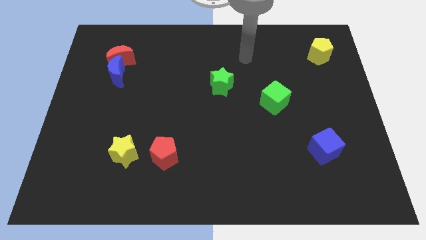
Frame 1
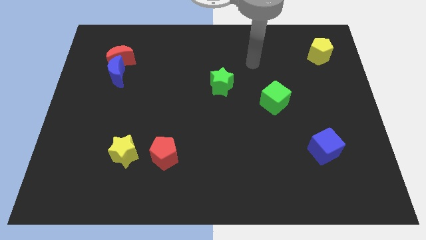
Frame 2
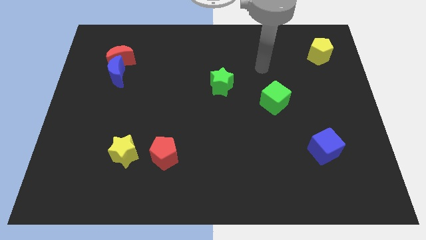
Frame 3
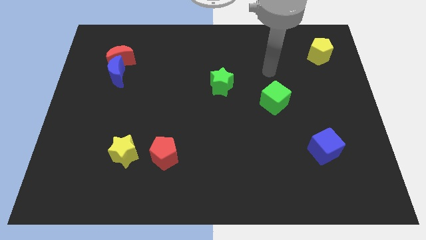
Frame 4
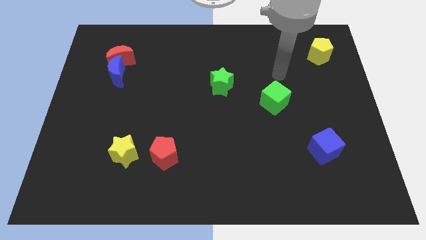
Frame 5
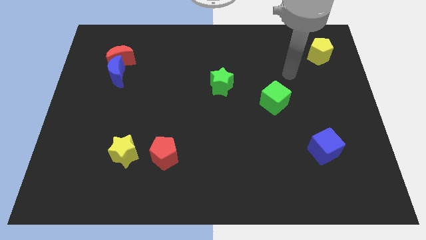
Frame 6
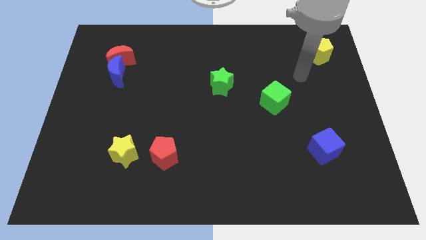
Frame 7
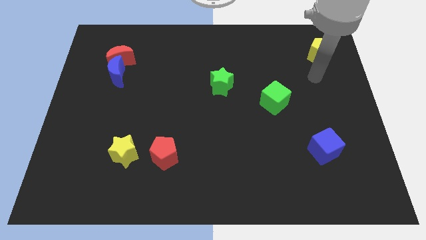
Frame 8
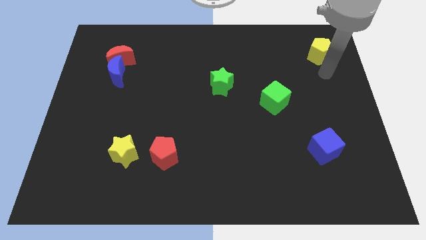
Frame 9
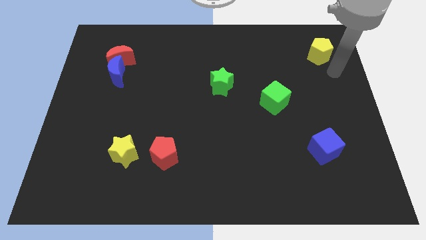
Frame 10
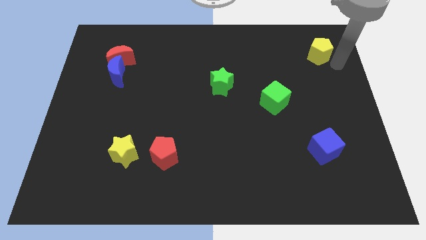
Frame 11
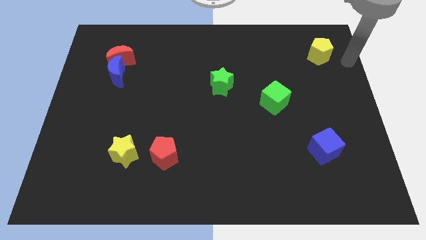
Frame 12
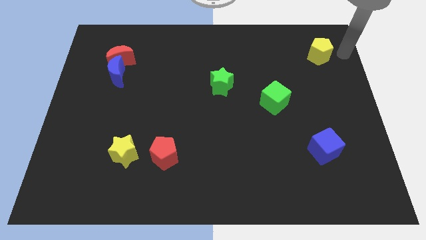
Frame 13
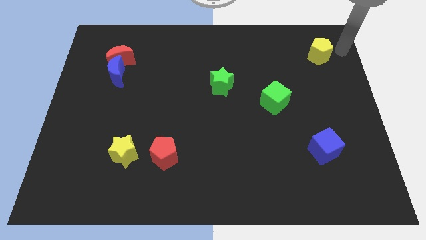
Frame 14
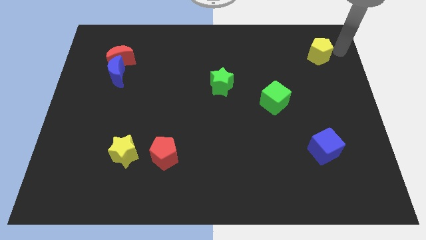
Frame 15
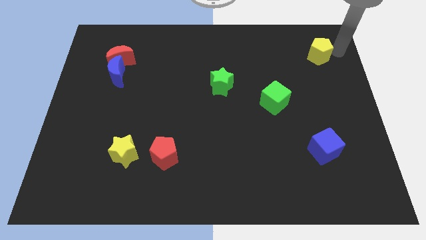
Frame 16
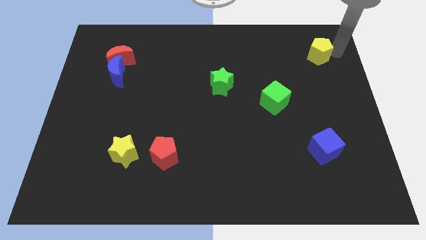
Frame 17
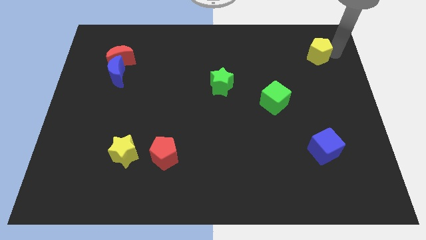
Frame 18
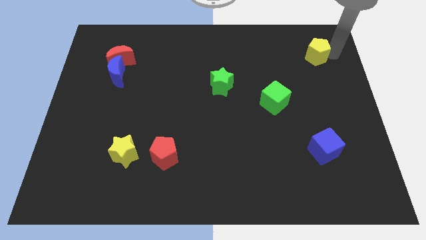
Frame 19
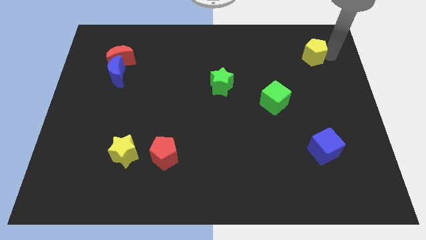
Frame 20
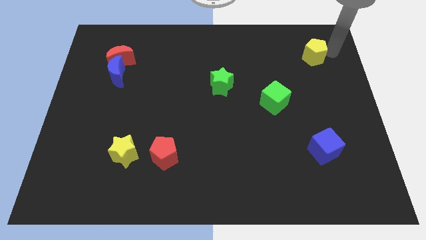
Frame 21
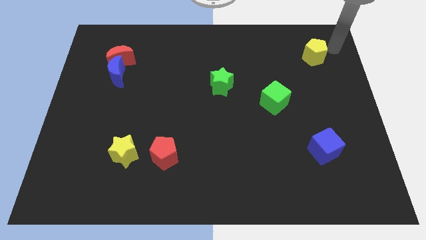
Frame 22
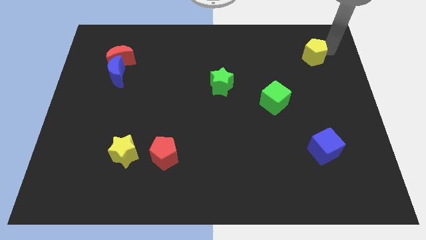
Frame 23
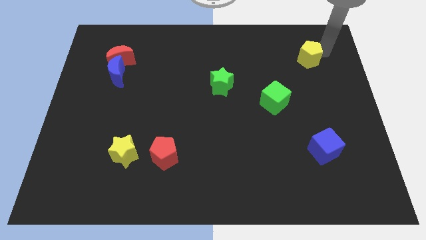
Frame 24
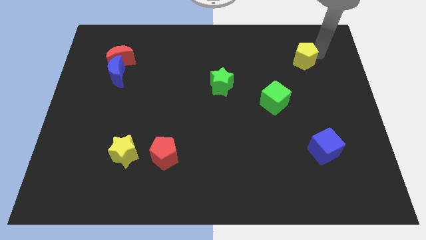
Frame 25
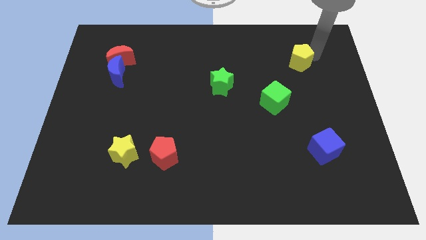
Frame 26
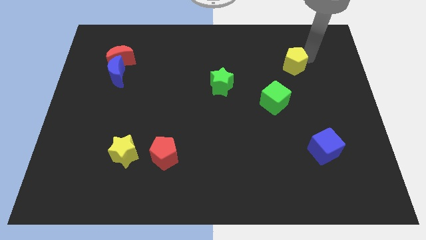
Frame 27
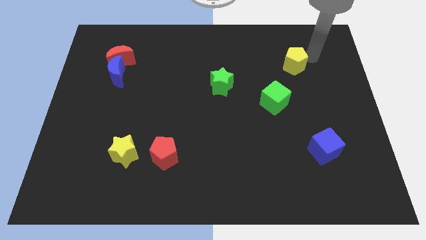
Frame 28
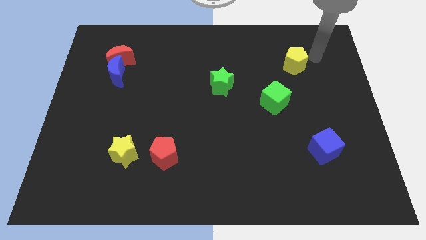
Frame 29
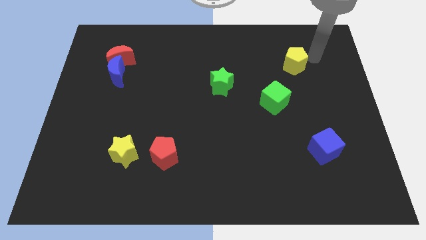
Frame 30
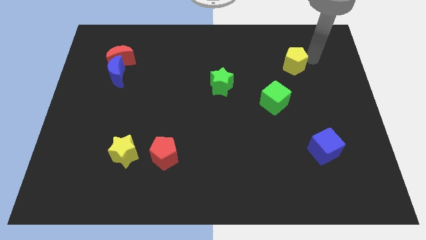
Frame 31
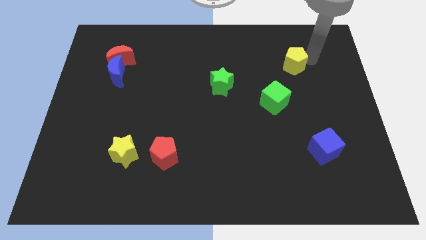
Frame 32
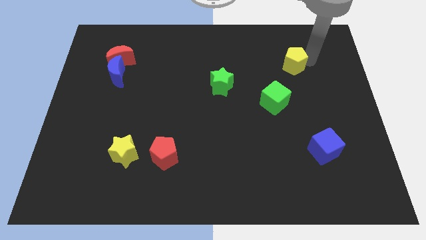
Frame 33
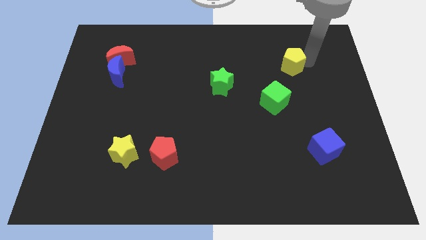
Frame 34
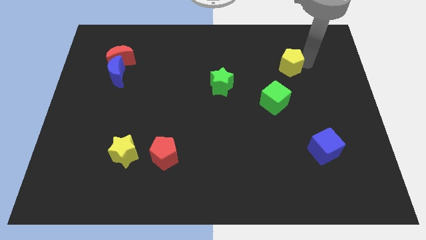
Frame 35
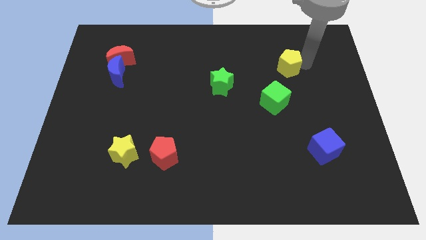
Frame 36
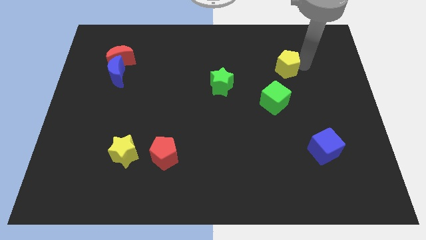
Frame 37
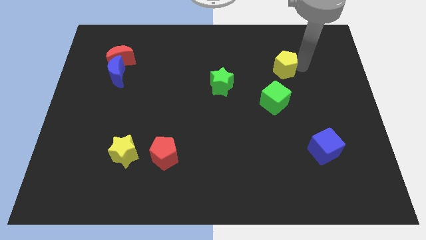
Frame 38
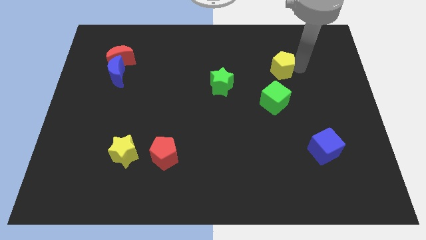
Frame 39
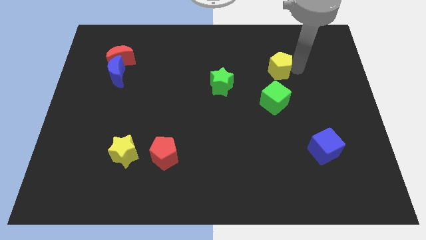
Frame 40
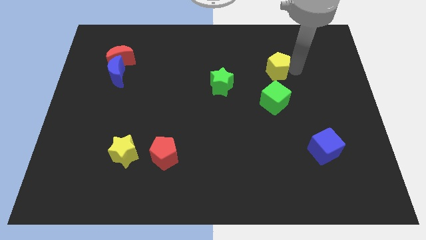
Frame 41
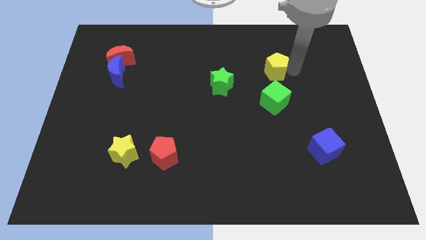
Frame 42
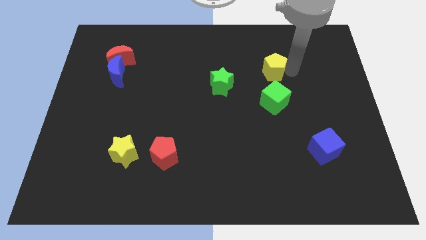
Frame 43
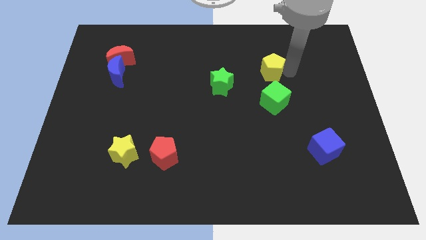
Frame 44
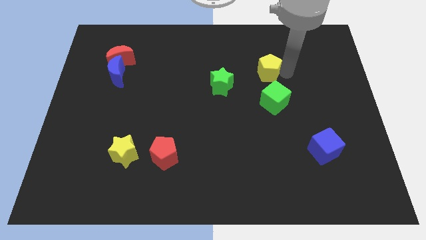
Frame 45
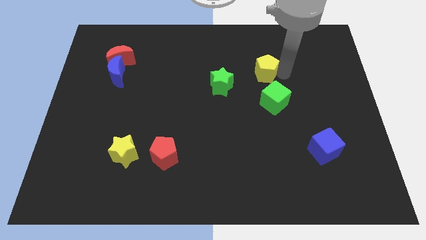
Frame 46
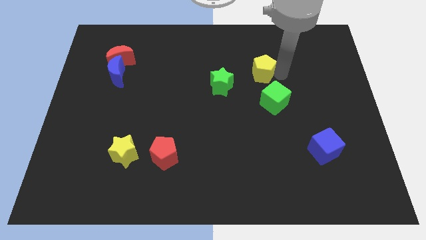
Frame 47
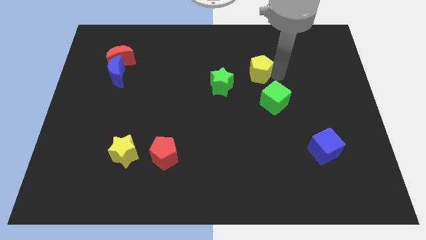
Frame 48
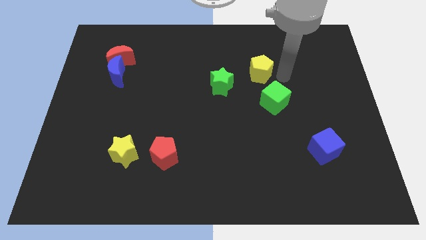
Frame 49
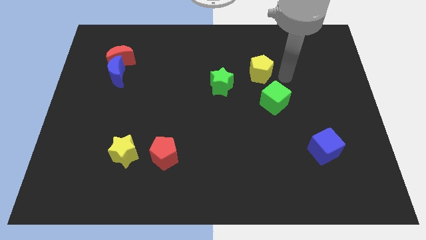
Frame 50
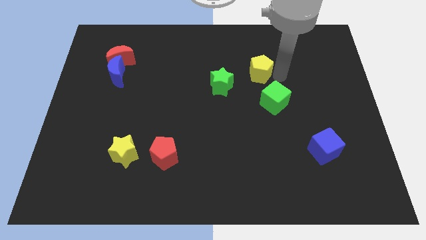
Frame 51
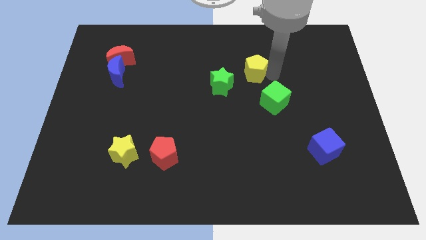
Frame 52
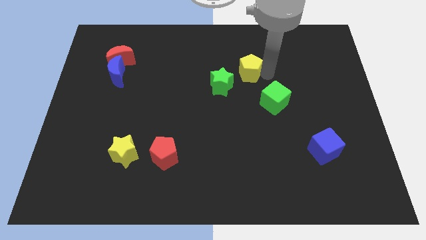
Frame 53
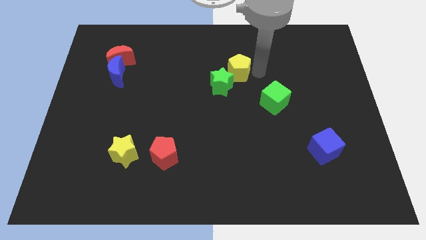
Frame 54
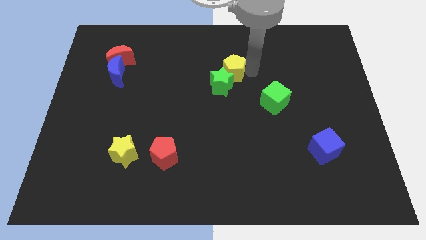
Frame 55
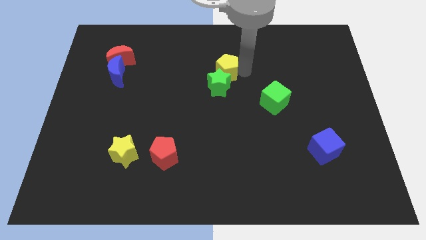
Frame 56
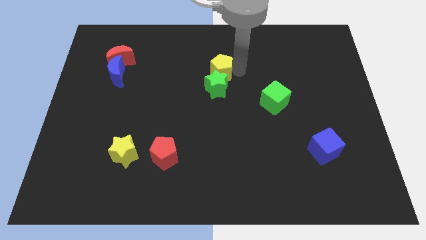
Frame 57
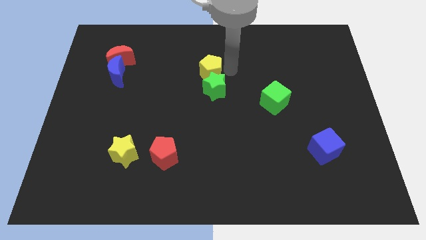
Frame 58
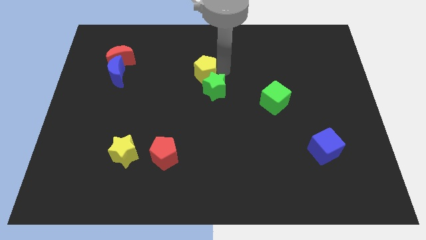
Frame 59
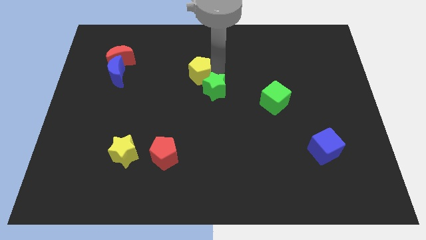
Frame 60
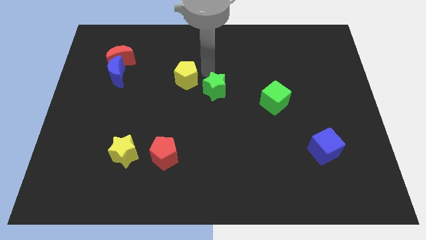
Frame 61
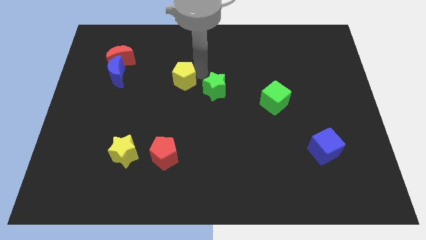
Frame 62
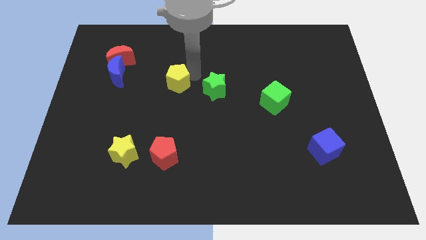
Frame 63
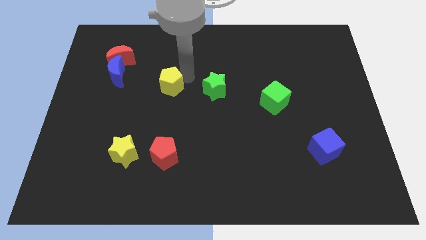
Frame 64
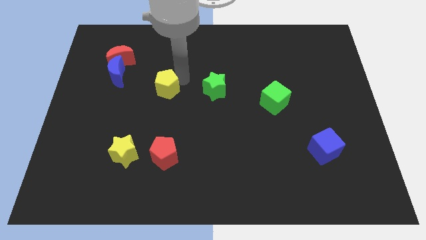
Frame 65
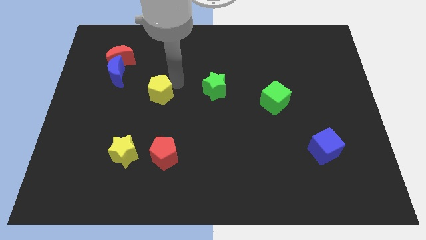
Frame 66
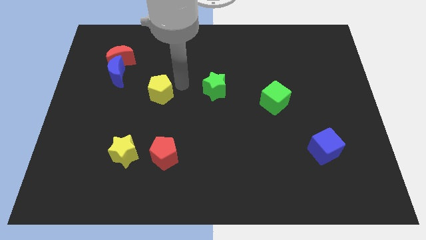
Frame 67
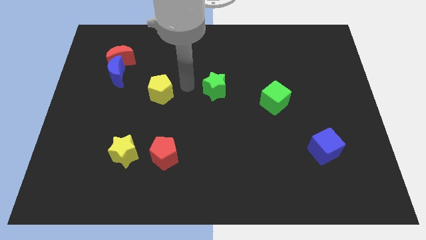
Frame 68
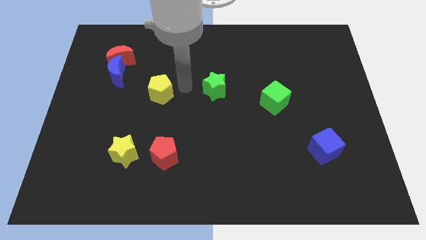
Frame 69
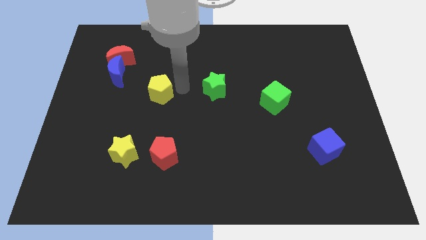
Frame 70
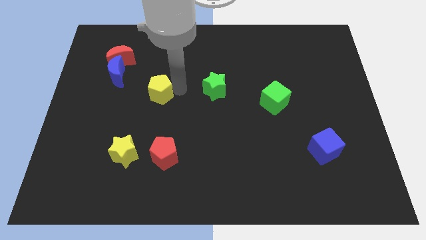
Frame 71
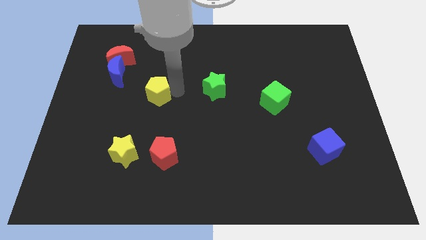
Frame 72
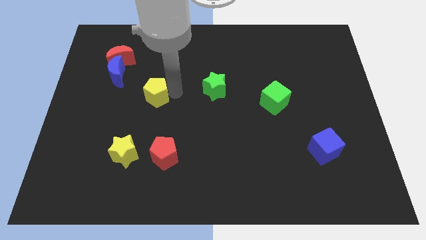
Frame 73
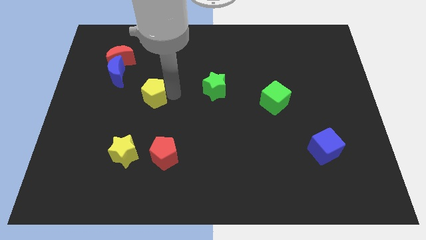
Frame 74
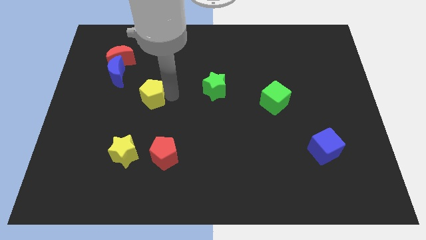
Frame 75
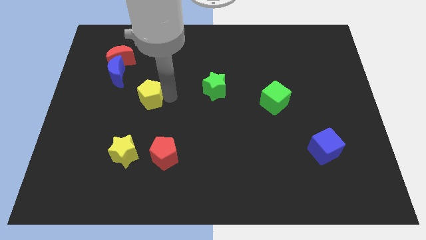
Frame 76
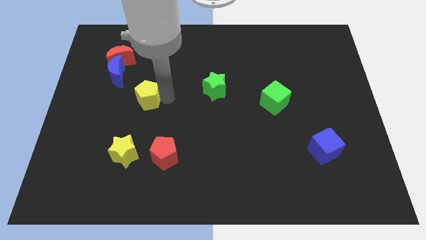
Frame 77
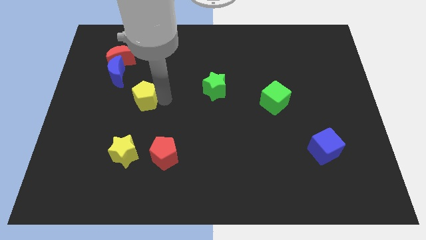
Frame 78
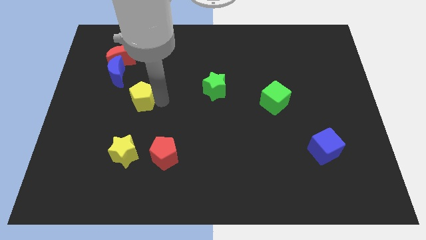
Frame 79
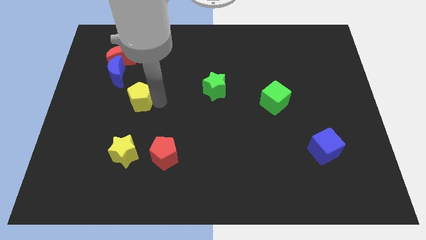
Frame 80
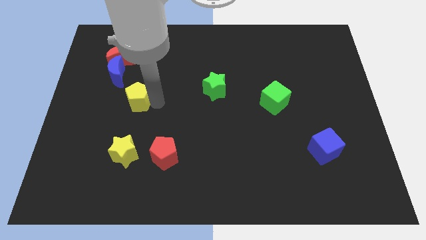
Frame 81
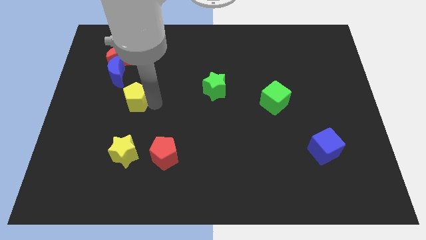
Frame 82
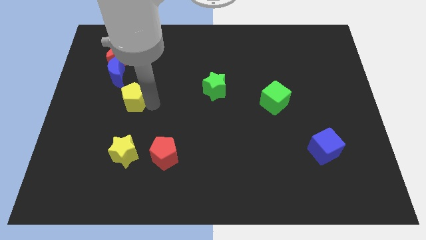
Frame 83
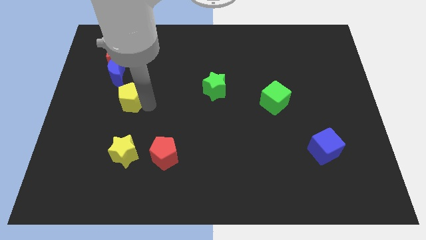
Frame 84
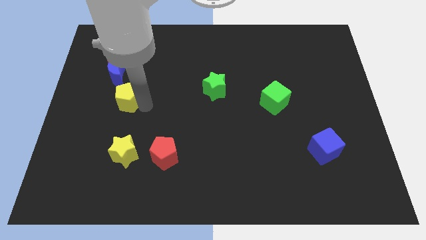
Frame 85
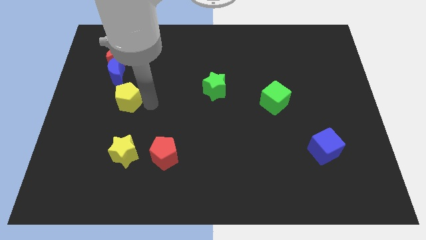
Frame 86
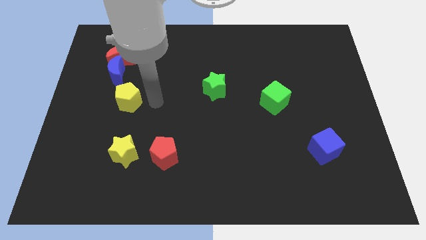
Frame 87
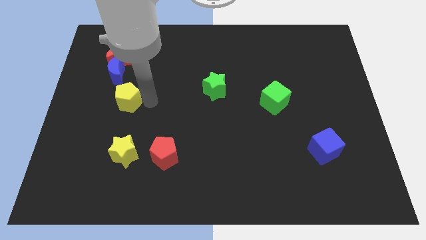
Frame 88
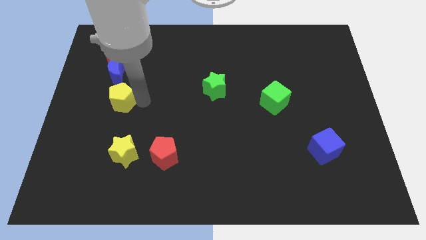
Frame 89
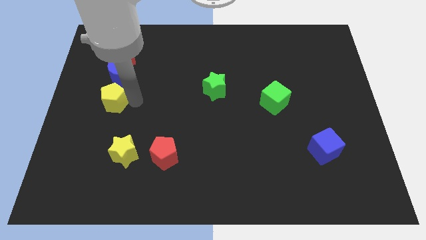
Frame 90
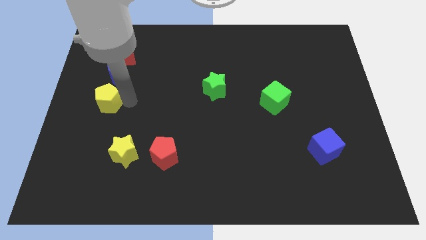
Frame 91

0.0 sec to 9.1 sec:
slide the yellow pentagon to the left side
